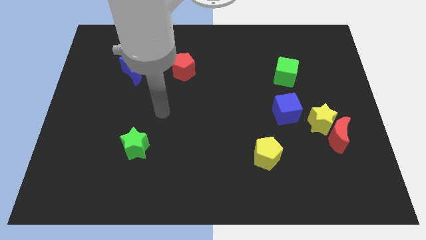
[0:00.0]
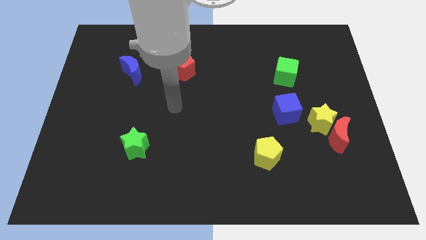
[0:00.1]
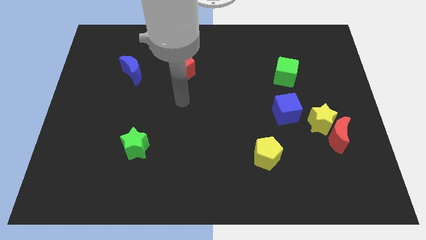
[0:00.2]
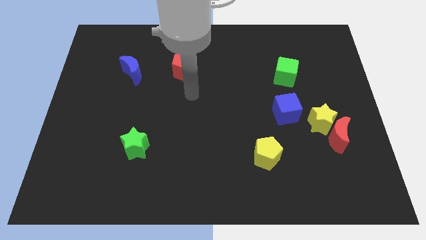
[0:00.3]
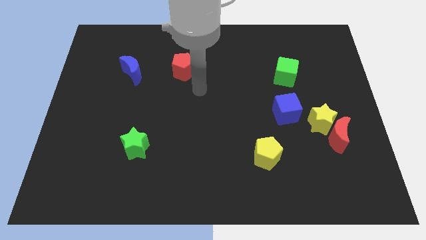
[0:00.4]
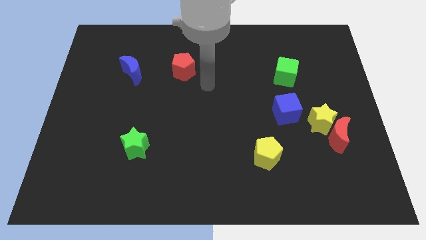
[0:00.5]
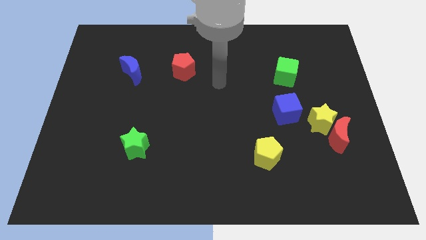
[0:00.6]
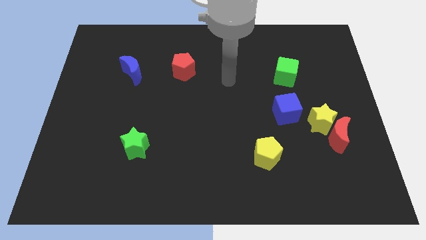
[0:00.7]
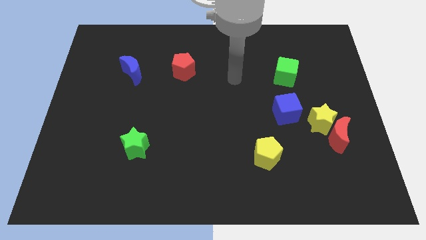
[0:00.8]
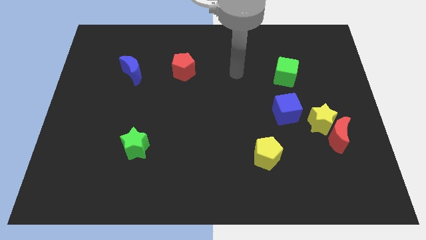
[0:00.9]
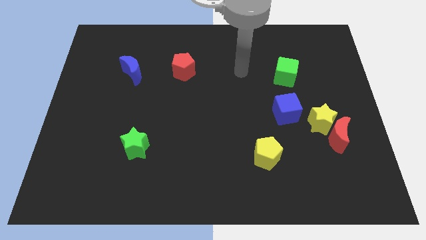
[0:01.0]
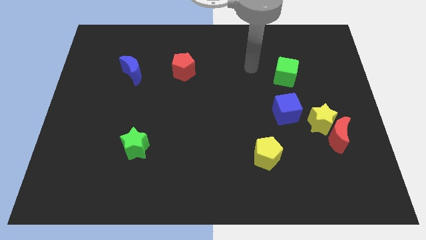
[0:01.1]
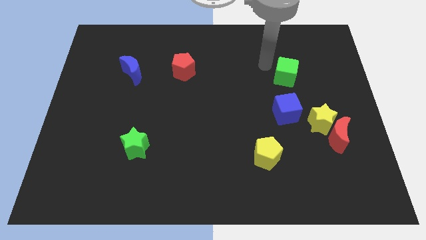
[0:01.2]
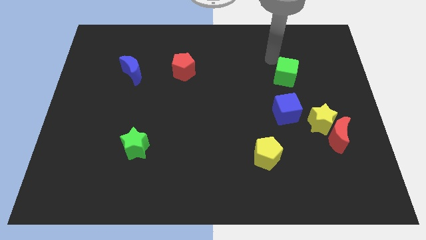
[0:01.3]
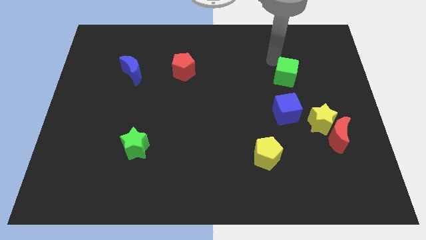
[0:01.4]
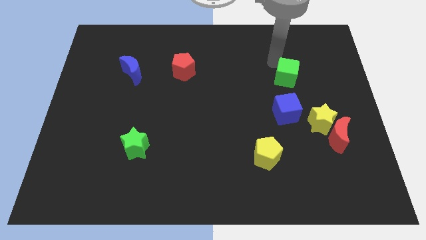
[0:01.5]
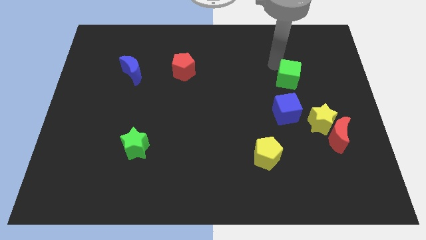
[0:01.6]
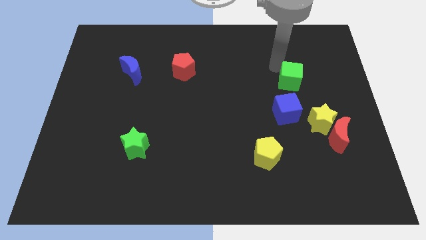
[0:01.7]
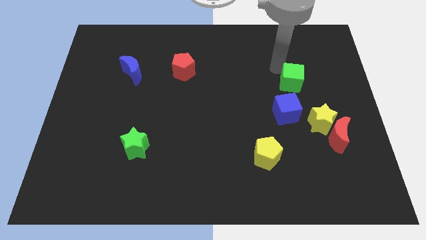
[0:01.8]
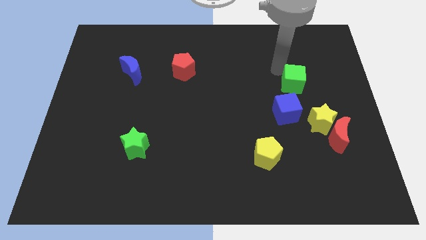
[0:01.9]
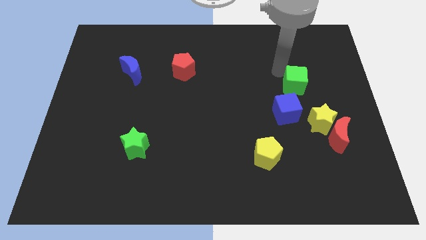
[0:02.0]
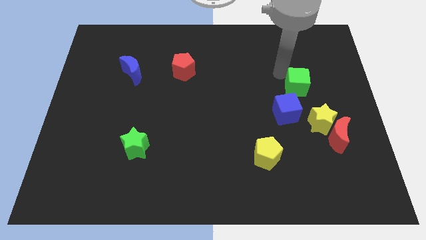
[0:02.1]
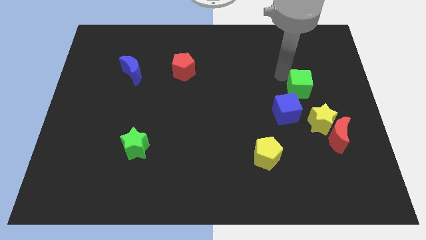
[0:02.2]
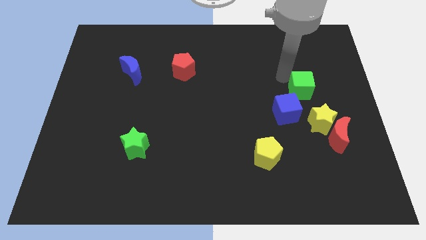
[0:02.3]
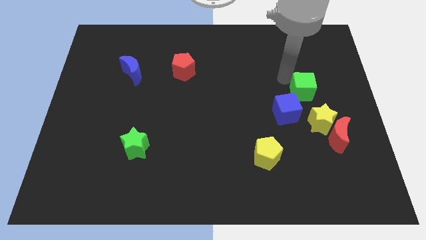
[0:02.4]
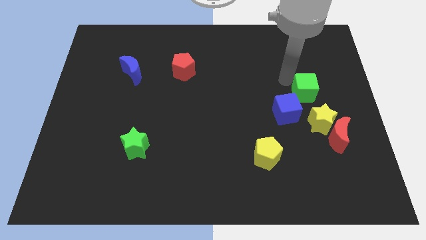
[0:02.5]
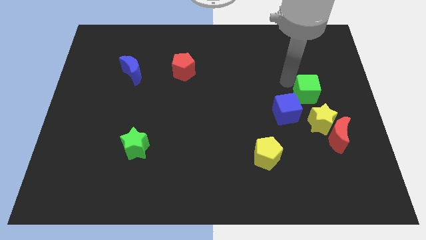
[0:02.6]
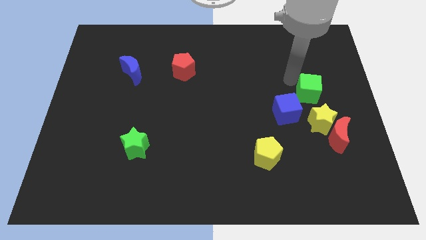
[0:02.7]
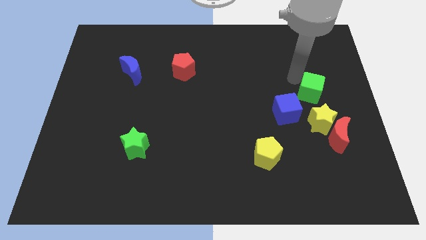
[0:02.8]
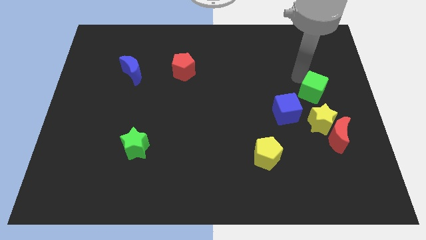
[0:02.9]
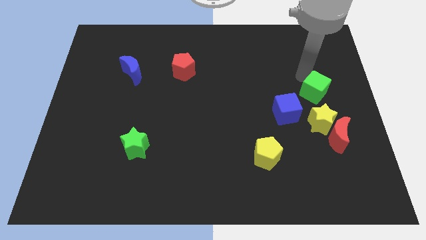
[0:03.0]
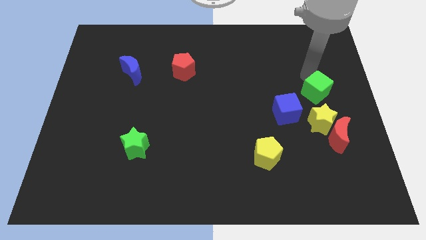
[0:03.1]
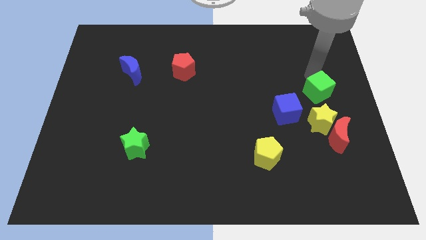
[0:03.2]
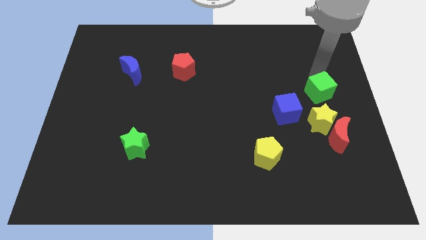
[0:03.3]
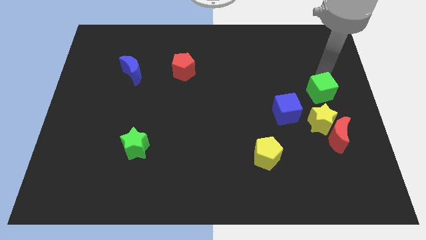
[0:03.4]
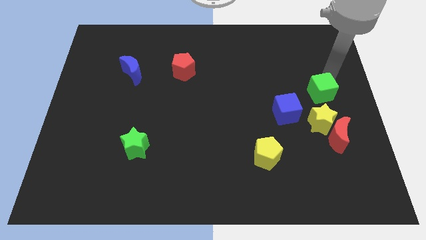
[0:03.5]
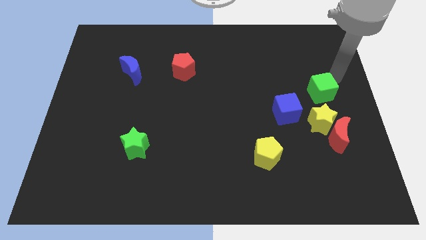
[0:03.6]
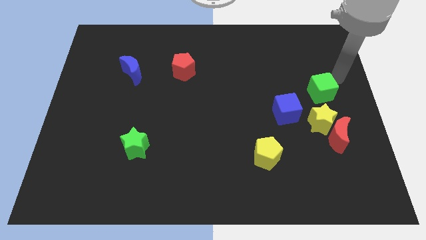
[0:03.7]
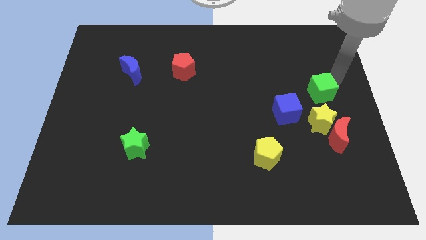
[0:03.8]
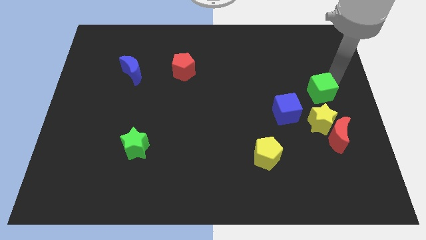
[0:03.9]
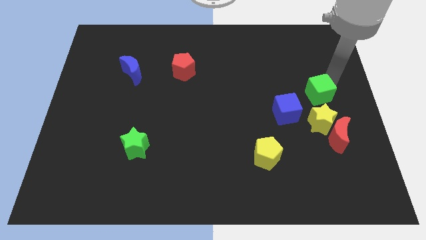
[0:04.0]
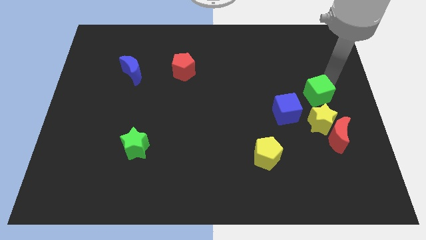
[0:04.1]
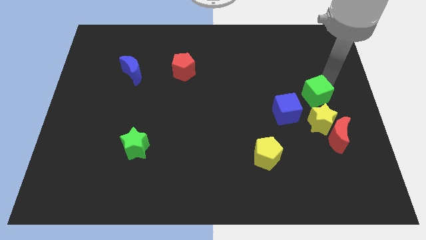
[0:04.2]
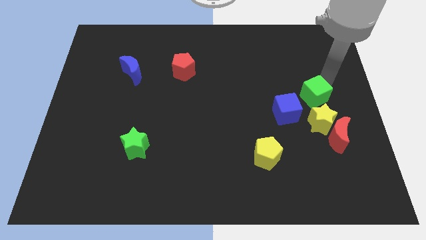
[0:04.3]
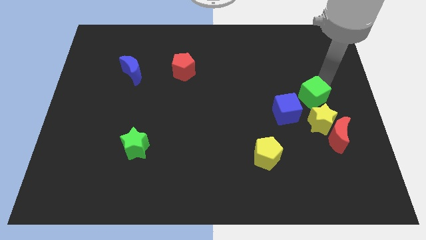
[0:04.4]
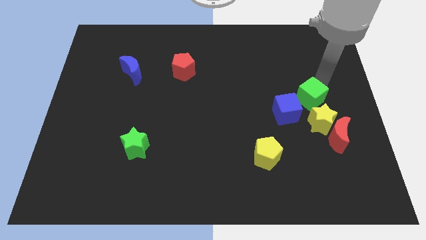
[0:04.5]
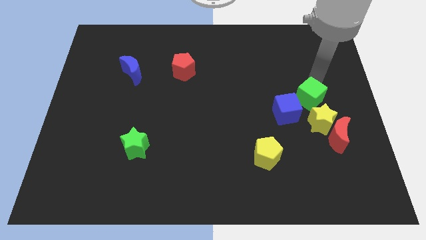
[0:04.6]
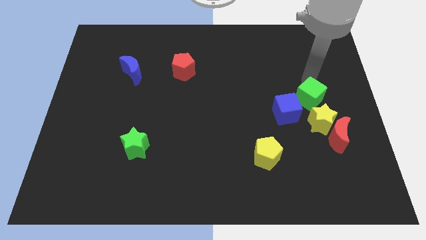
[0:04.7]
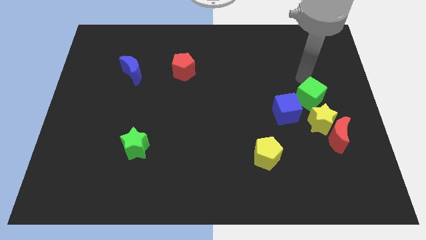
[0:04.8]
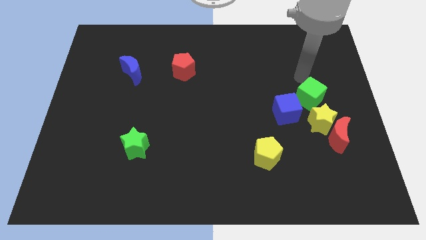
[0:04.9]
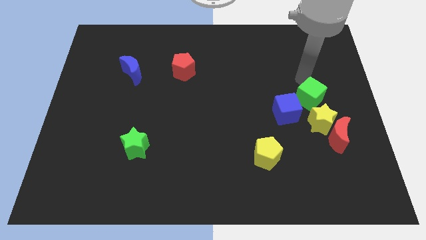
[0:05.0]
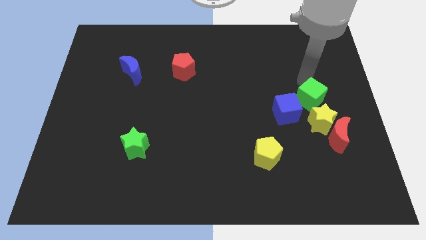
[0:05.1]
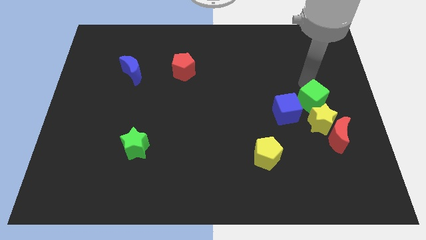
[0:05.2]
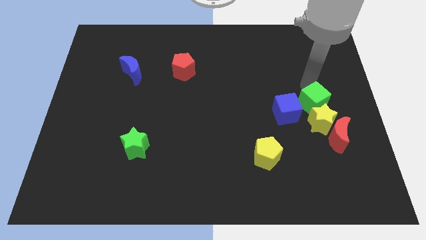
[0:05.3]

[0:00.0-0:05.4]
push the green cube next to the yellow star

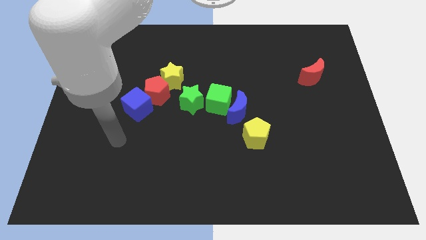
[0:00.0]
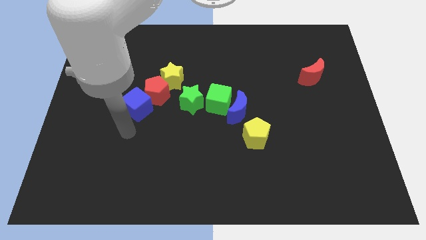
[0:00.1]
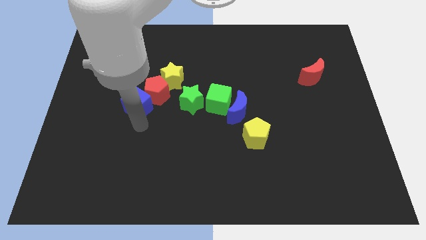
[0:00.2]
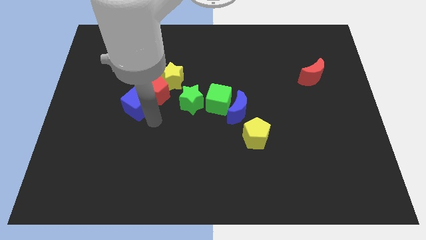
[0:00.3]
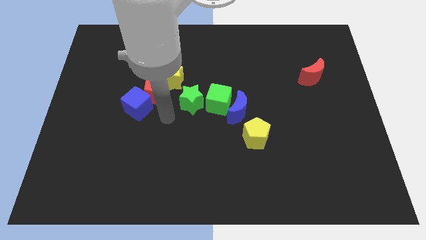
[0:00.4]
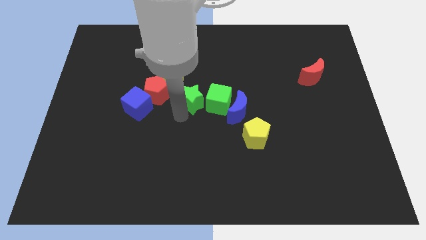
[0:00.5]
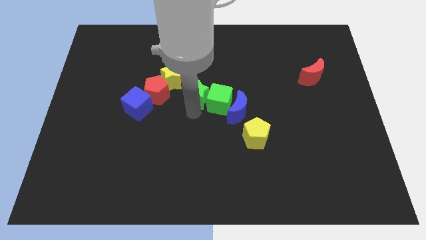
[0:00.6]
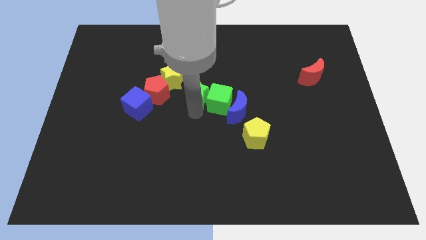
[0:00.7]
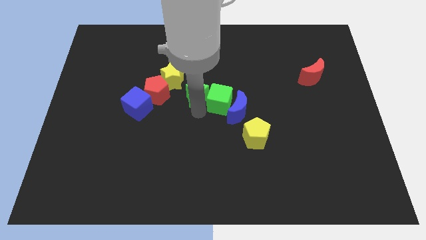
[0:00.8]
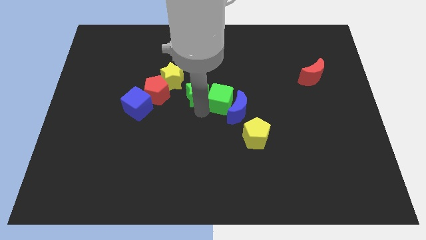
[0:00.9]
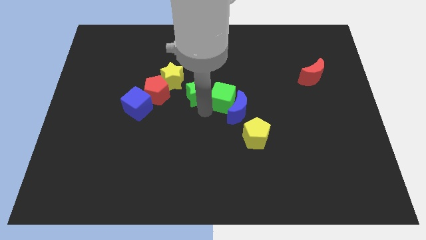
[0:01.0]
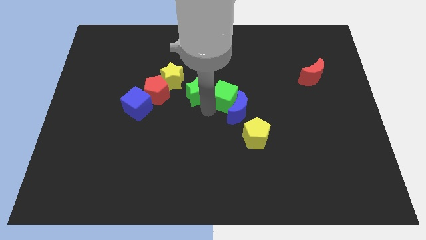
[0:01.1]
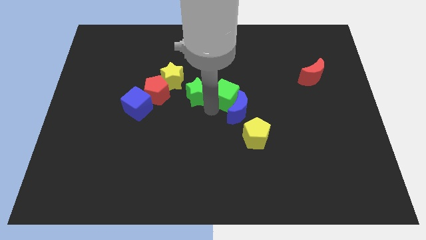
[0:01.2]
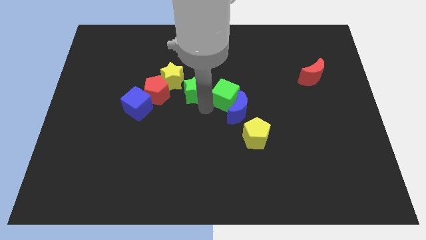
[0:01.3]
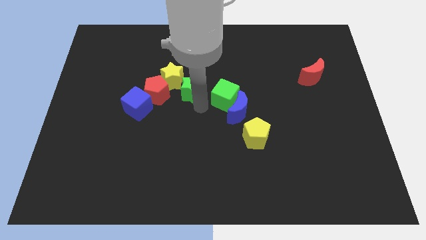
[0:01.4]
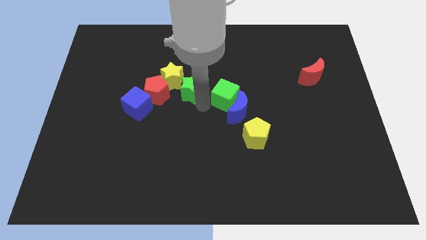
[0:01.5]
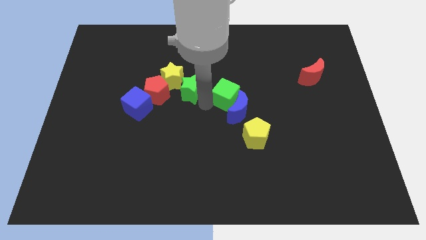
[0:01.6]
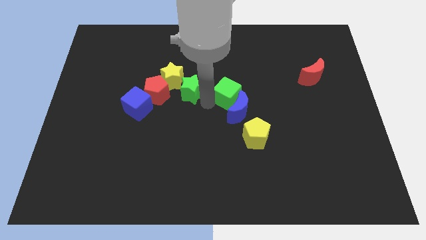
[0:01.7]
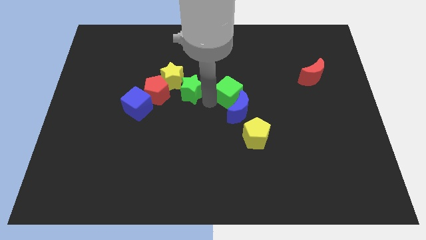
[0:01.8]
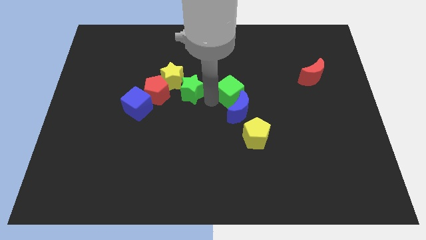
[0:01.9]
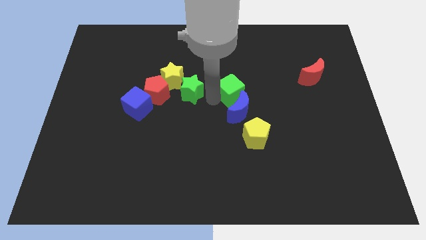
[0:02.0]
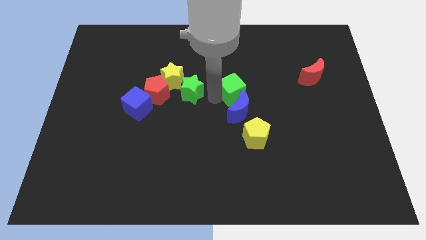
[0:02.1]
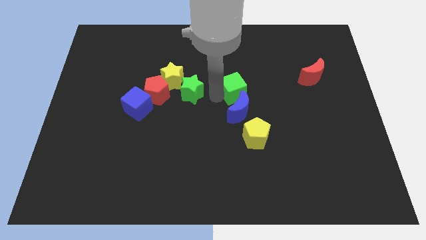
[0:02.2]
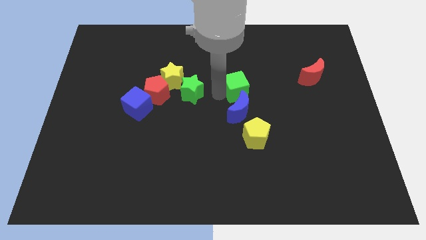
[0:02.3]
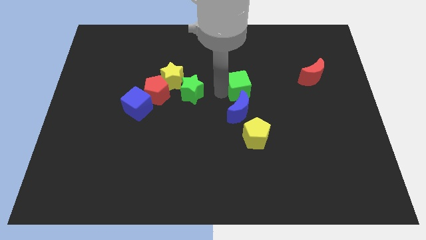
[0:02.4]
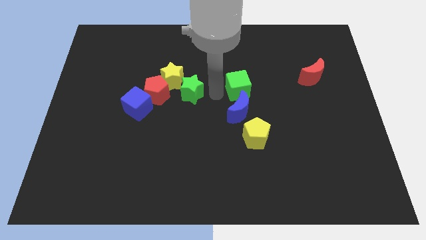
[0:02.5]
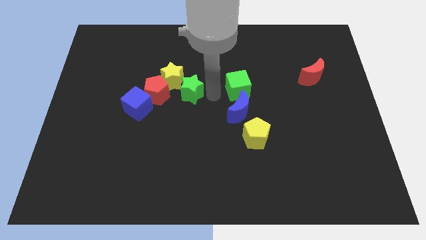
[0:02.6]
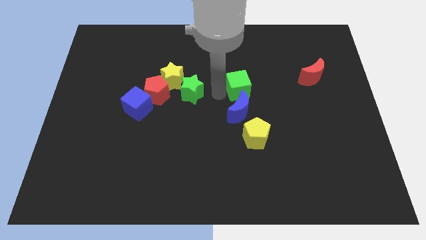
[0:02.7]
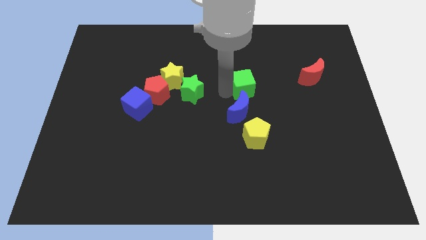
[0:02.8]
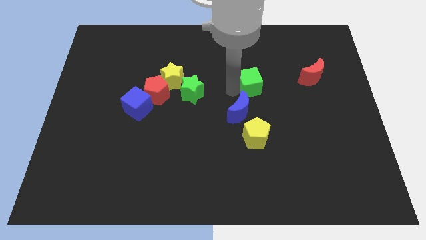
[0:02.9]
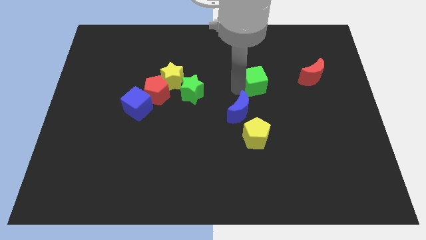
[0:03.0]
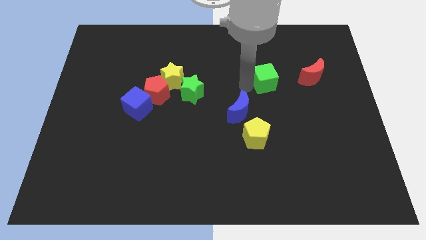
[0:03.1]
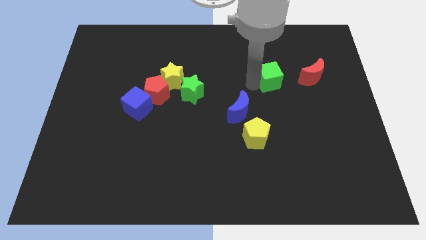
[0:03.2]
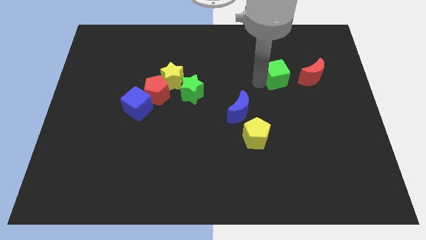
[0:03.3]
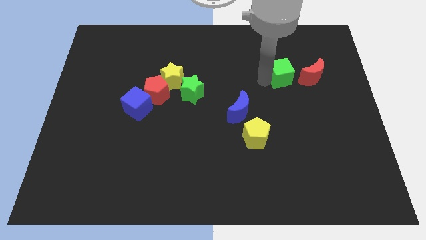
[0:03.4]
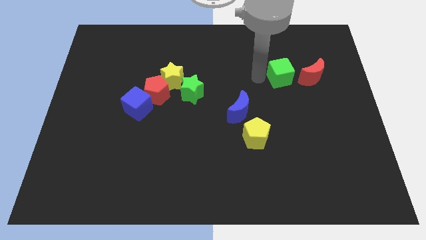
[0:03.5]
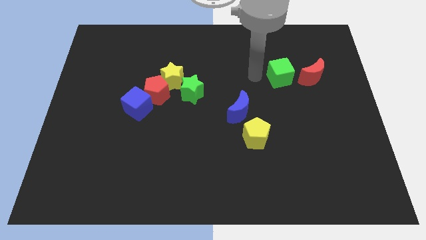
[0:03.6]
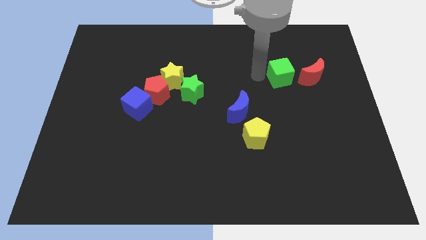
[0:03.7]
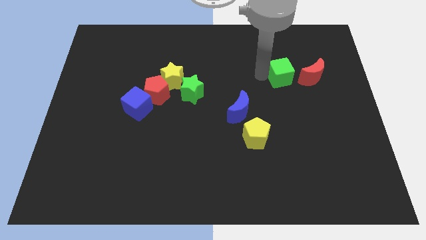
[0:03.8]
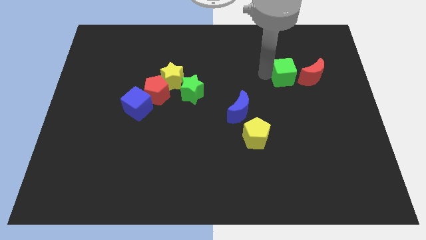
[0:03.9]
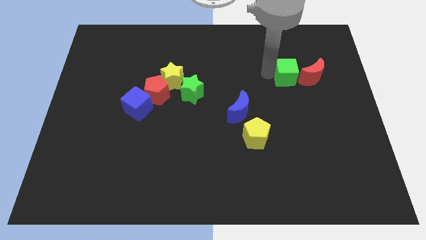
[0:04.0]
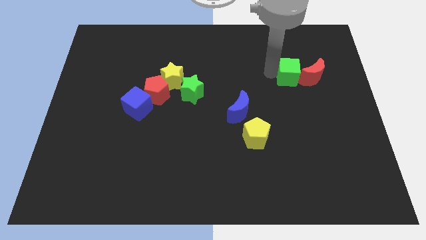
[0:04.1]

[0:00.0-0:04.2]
move the green cube towards the red moon
